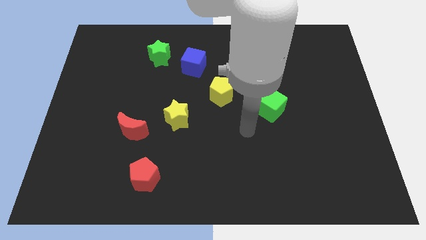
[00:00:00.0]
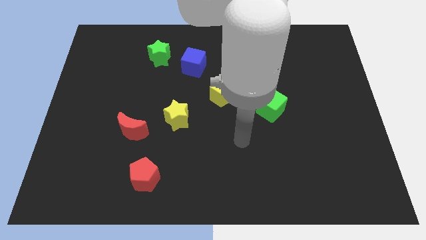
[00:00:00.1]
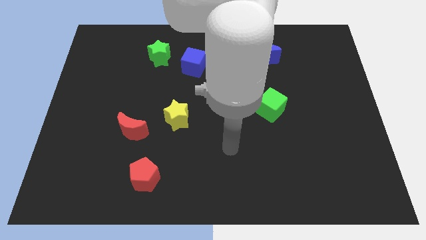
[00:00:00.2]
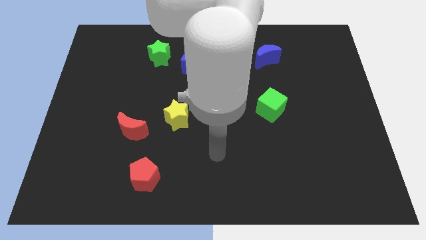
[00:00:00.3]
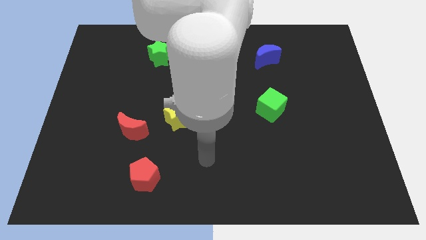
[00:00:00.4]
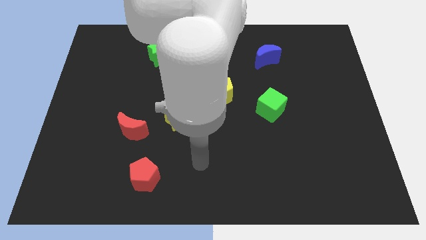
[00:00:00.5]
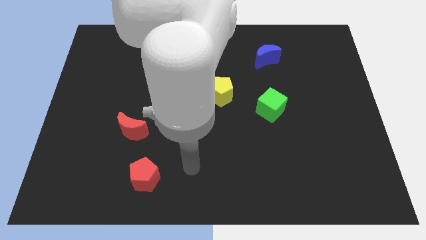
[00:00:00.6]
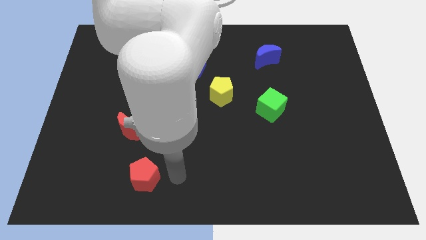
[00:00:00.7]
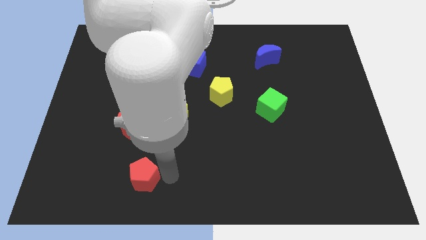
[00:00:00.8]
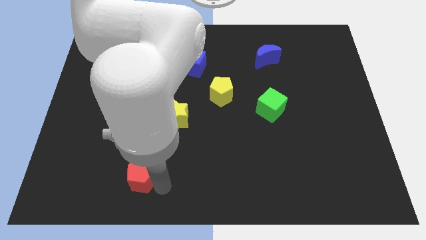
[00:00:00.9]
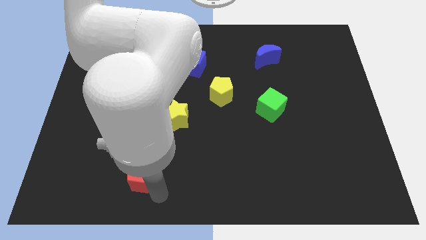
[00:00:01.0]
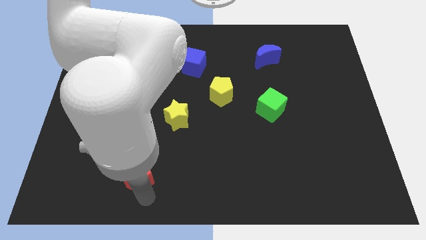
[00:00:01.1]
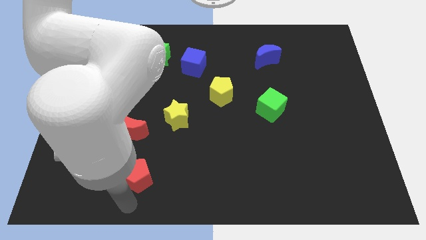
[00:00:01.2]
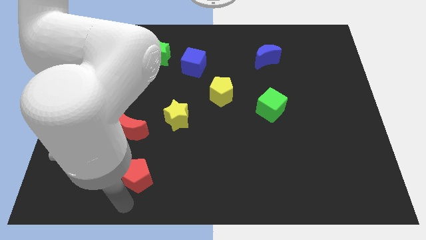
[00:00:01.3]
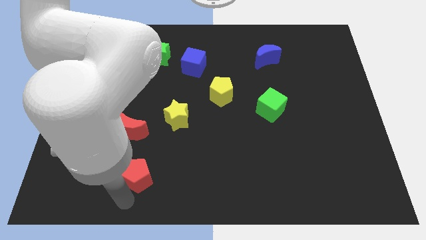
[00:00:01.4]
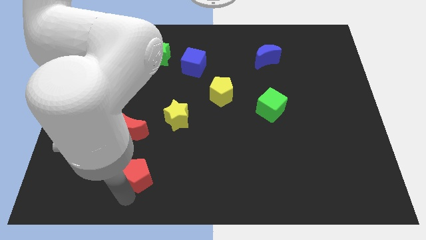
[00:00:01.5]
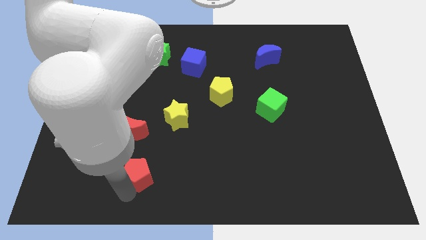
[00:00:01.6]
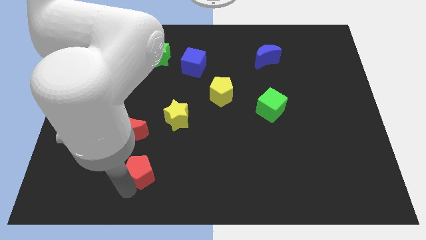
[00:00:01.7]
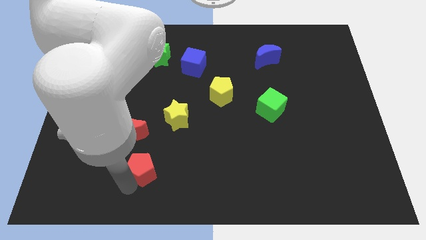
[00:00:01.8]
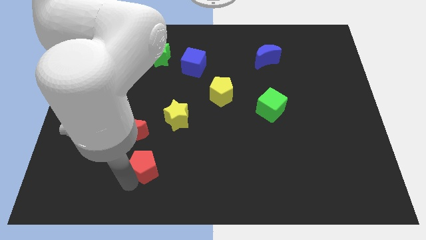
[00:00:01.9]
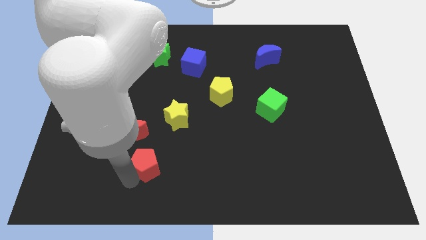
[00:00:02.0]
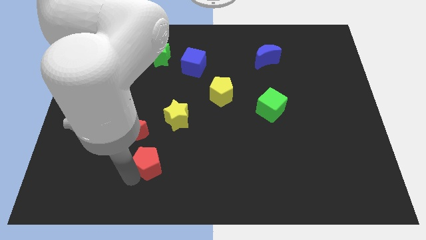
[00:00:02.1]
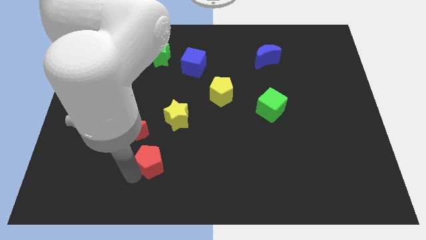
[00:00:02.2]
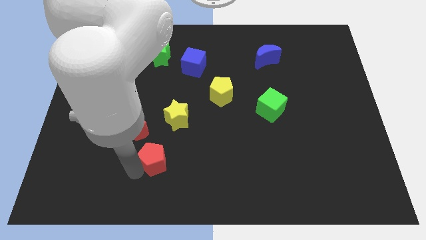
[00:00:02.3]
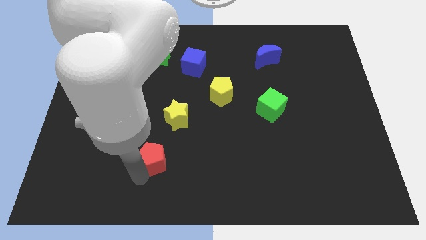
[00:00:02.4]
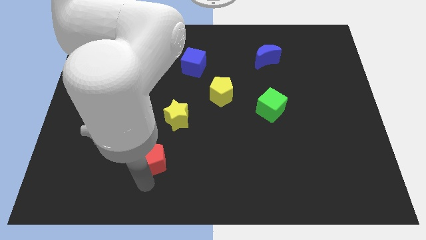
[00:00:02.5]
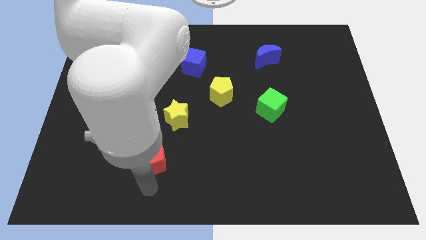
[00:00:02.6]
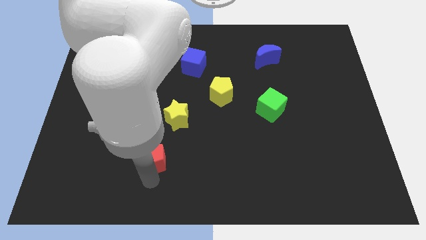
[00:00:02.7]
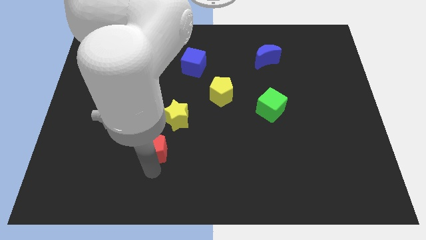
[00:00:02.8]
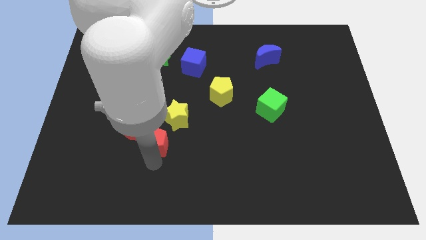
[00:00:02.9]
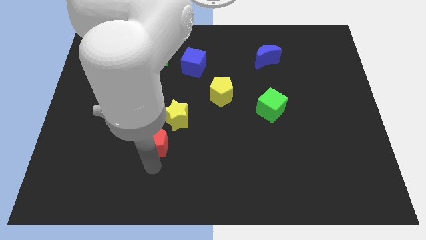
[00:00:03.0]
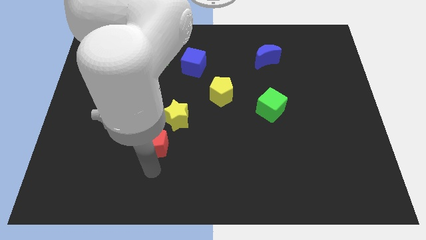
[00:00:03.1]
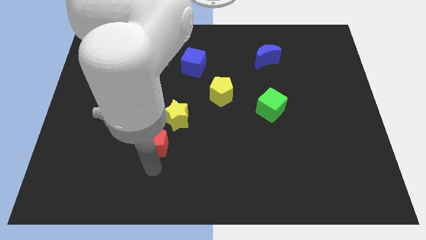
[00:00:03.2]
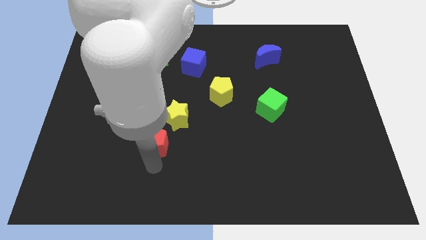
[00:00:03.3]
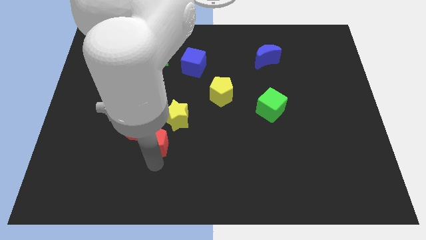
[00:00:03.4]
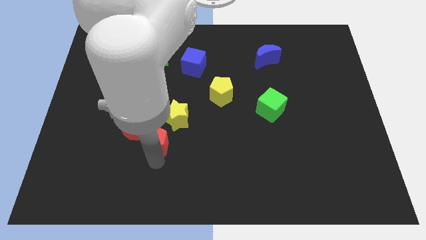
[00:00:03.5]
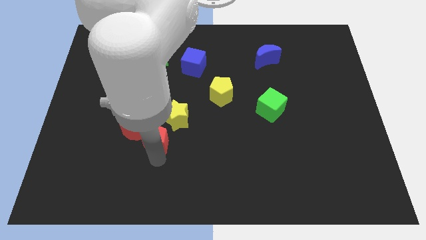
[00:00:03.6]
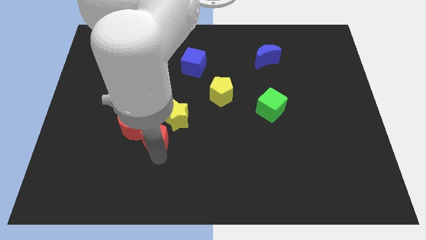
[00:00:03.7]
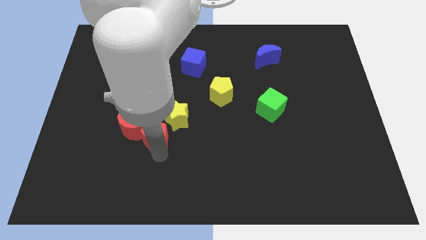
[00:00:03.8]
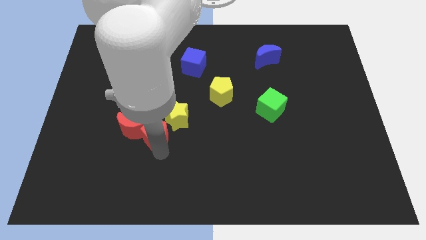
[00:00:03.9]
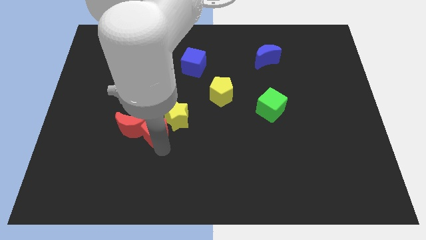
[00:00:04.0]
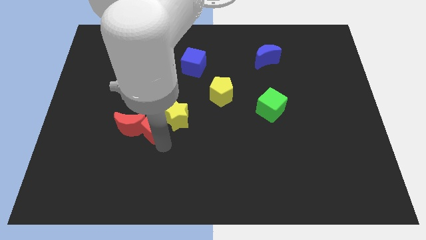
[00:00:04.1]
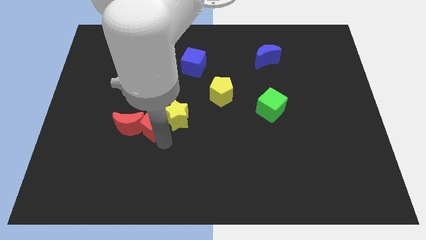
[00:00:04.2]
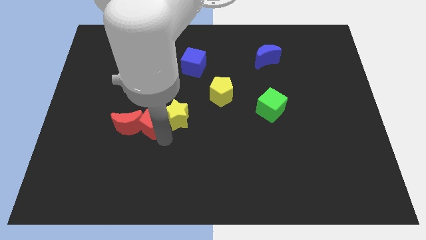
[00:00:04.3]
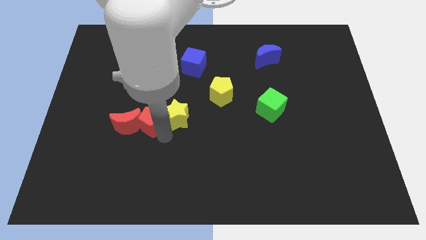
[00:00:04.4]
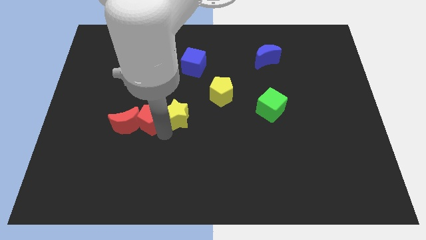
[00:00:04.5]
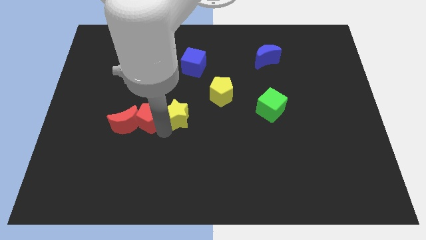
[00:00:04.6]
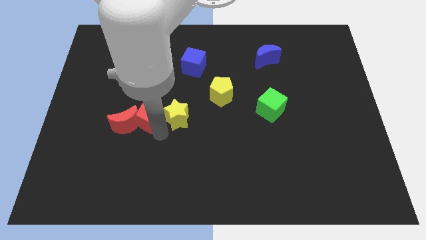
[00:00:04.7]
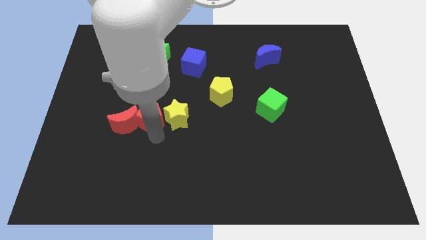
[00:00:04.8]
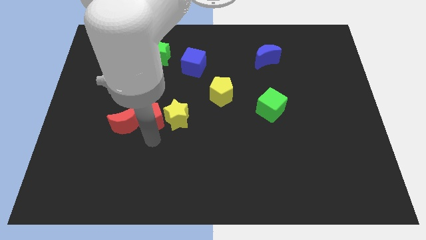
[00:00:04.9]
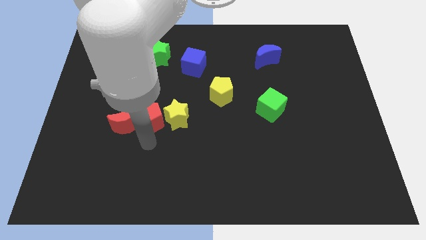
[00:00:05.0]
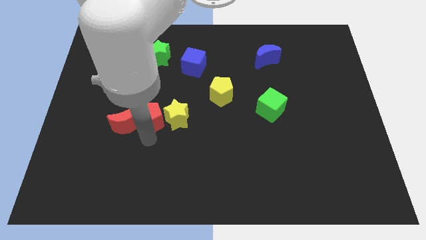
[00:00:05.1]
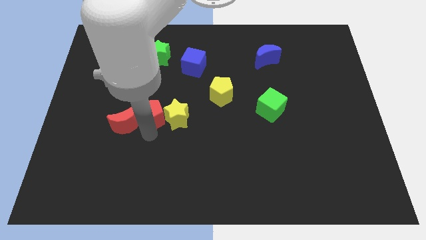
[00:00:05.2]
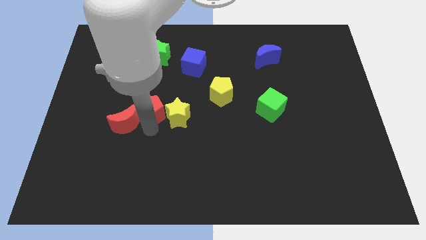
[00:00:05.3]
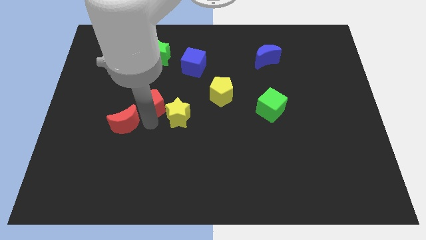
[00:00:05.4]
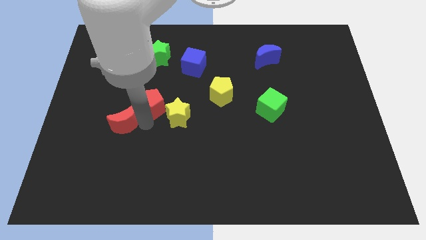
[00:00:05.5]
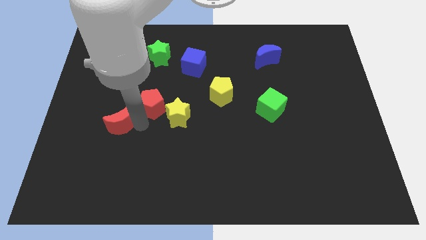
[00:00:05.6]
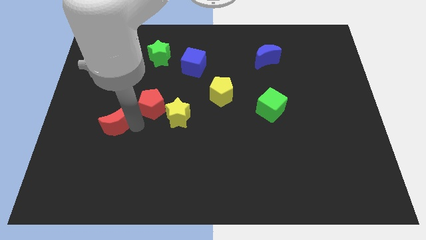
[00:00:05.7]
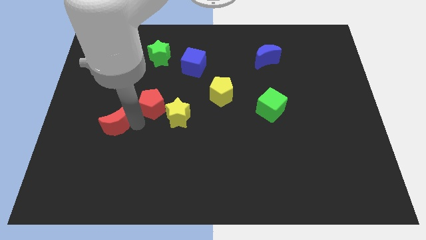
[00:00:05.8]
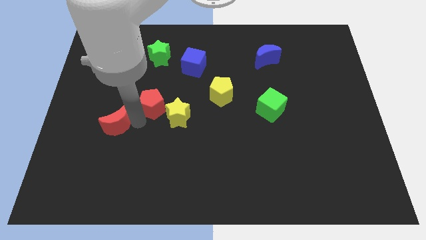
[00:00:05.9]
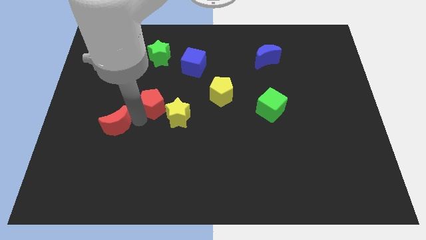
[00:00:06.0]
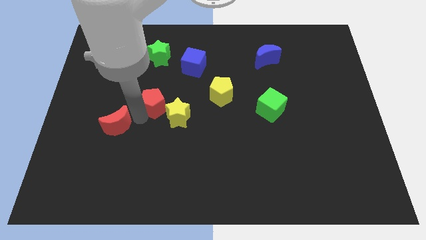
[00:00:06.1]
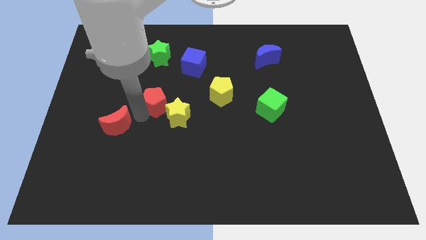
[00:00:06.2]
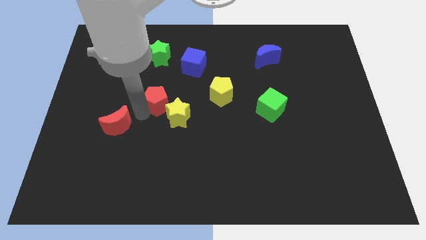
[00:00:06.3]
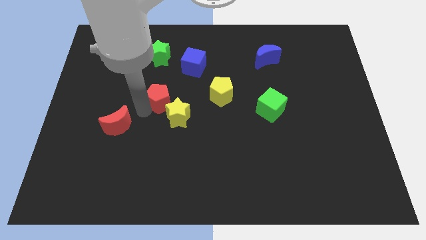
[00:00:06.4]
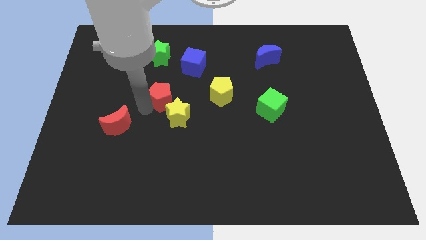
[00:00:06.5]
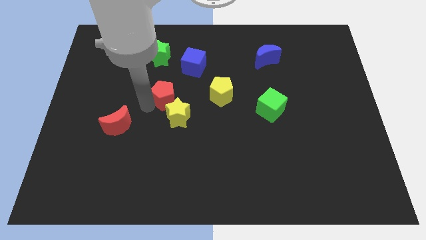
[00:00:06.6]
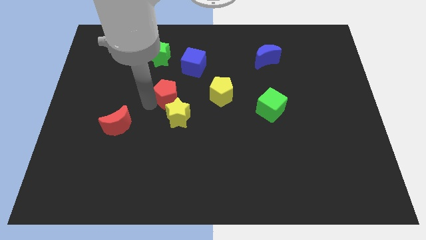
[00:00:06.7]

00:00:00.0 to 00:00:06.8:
slide the red pentagon to the bottom left side of the blue cube
